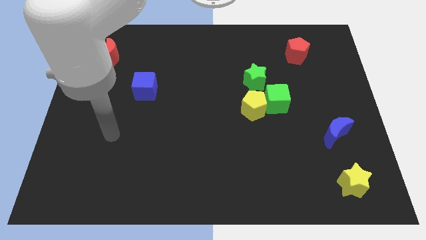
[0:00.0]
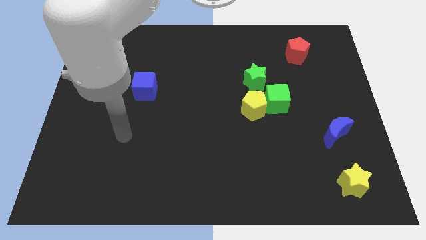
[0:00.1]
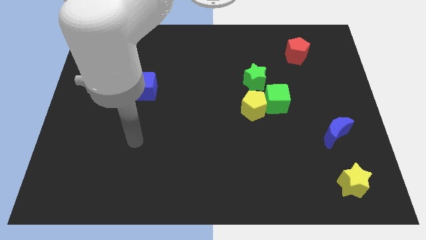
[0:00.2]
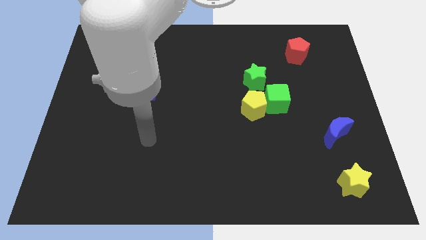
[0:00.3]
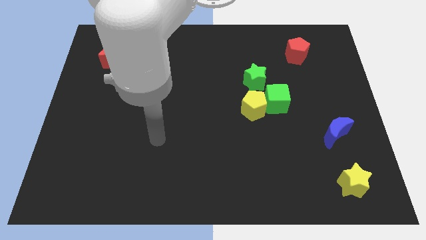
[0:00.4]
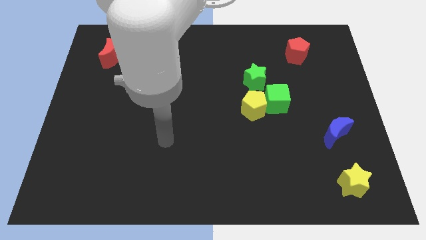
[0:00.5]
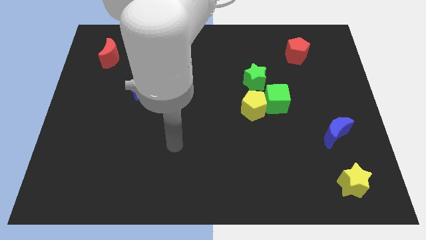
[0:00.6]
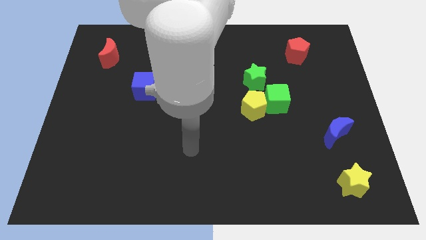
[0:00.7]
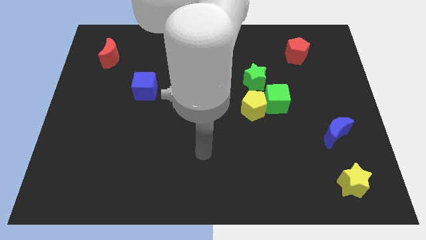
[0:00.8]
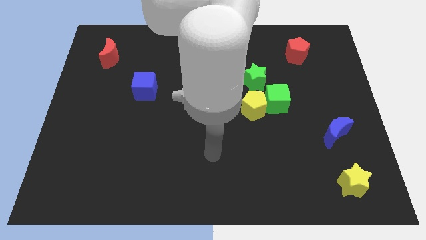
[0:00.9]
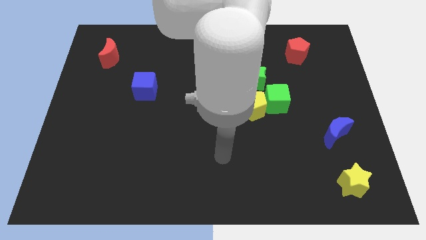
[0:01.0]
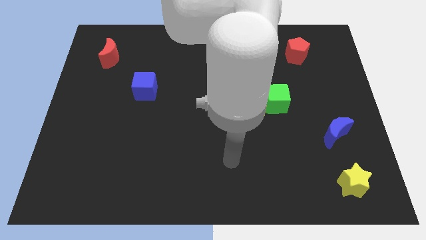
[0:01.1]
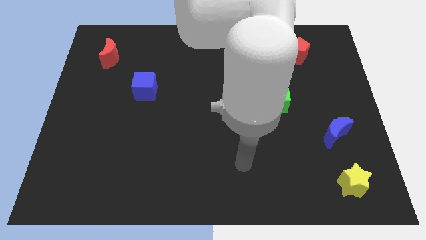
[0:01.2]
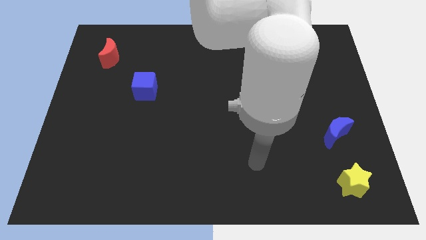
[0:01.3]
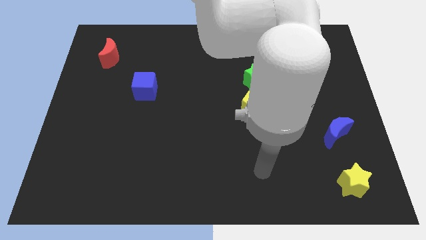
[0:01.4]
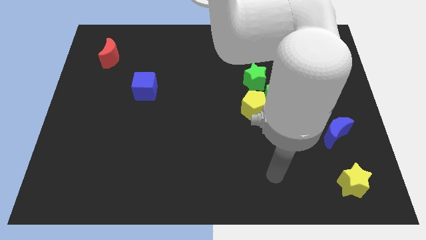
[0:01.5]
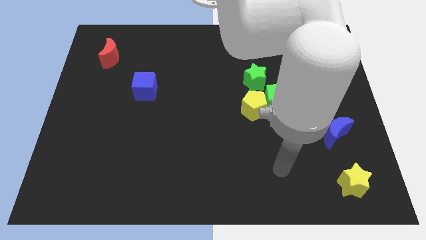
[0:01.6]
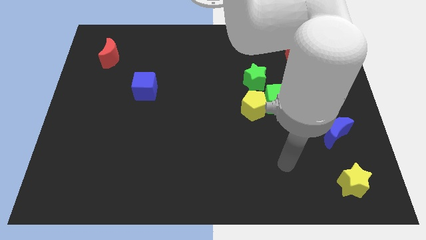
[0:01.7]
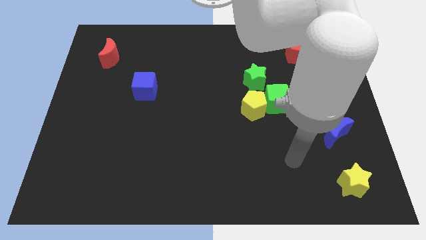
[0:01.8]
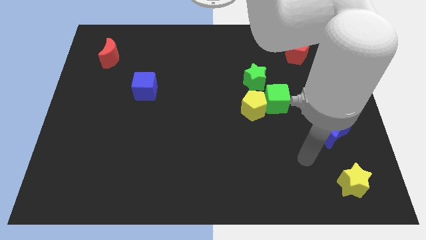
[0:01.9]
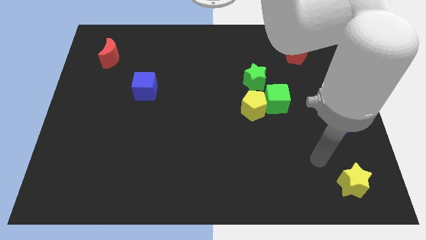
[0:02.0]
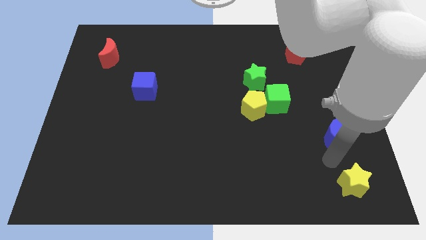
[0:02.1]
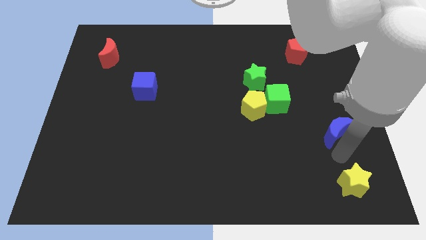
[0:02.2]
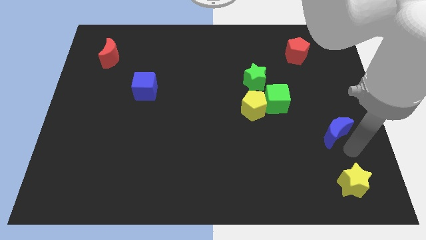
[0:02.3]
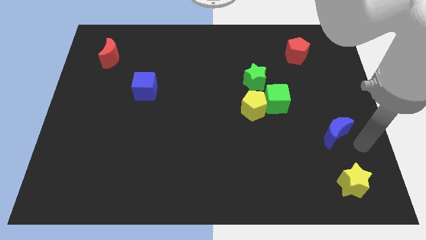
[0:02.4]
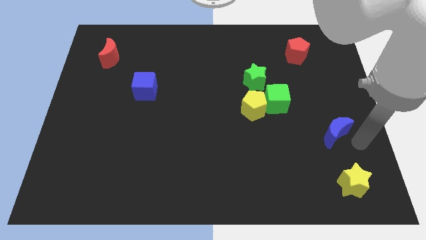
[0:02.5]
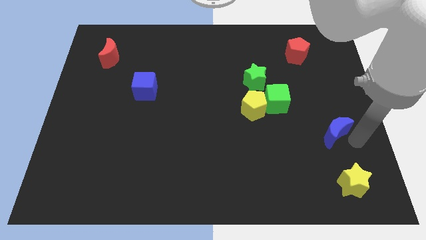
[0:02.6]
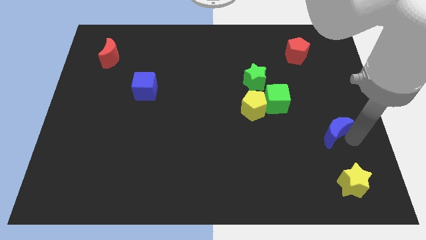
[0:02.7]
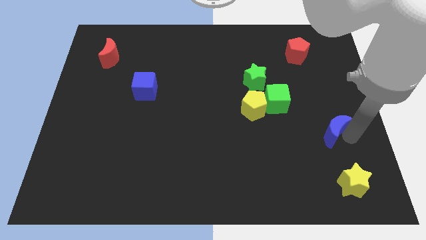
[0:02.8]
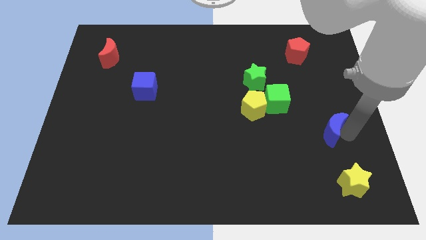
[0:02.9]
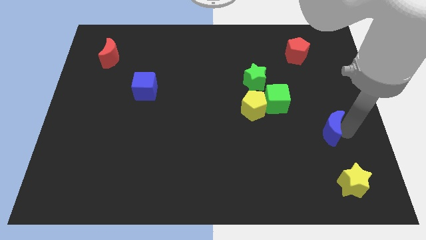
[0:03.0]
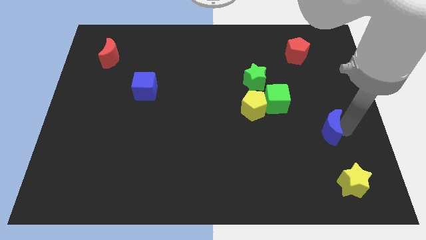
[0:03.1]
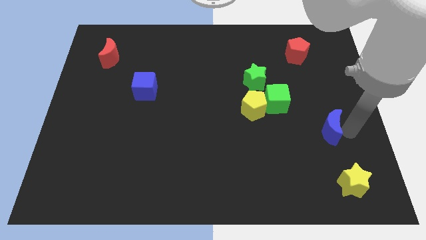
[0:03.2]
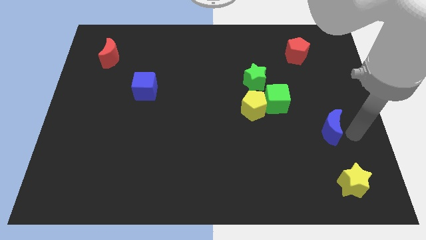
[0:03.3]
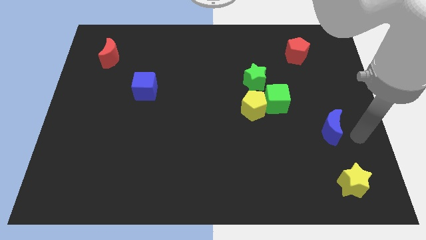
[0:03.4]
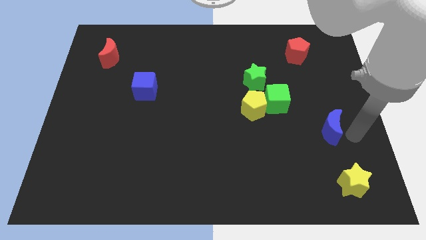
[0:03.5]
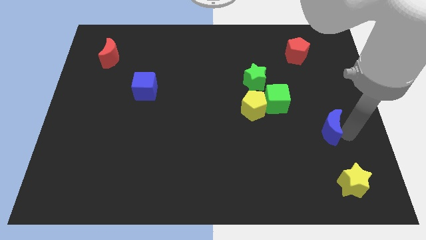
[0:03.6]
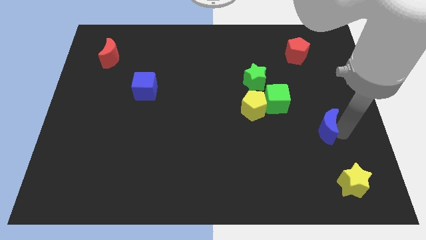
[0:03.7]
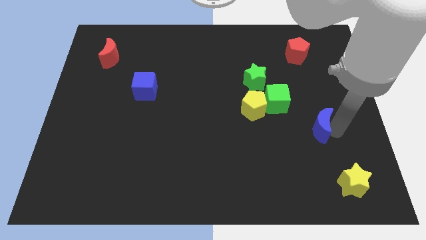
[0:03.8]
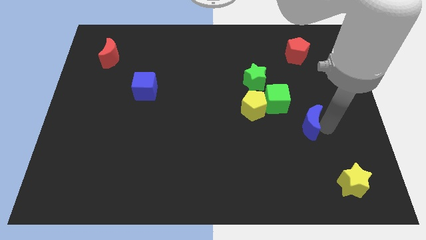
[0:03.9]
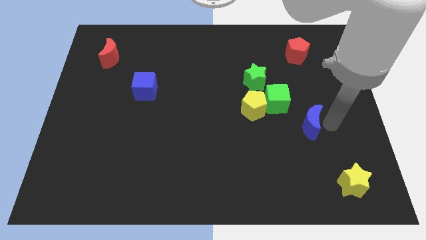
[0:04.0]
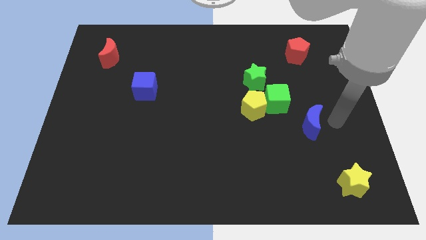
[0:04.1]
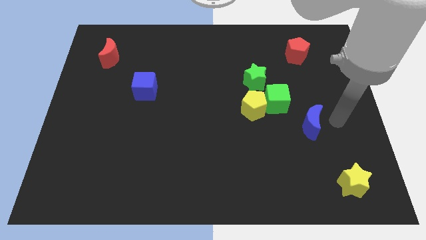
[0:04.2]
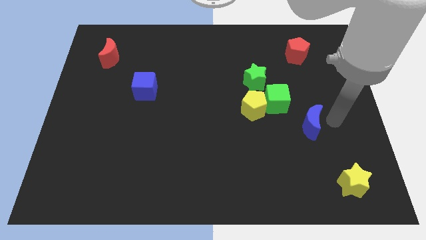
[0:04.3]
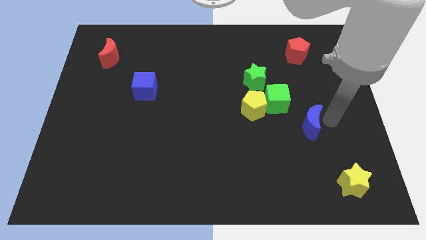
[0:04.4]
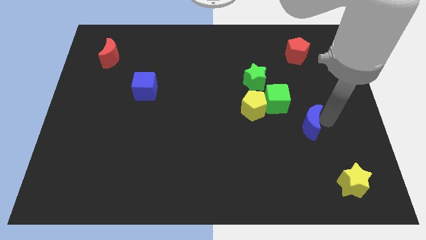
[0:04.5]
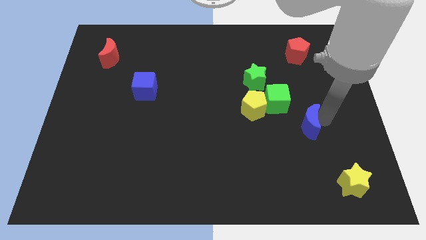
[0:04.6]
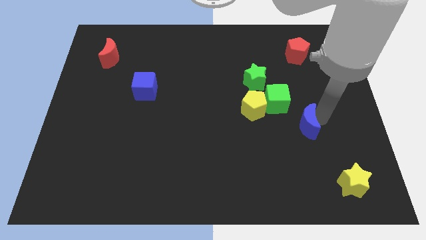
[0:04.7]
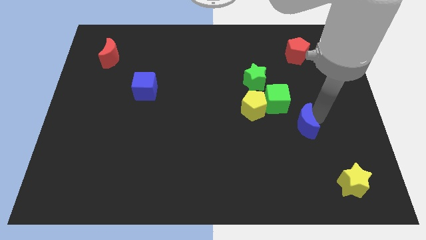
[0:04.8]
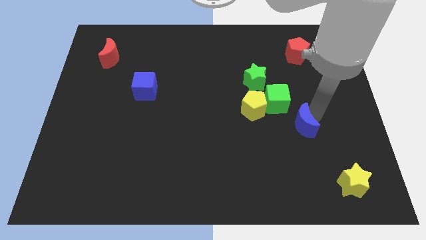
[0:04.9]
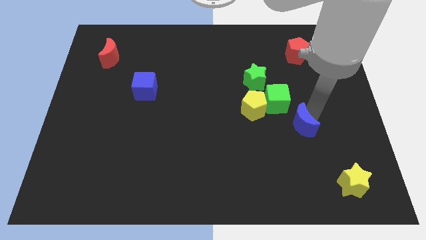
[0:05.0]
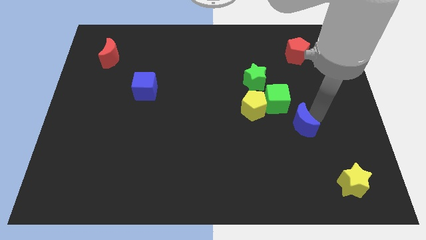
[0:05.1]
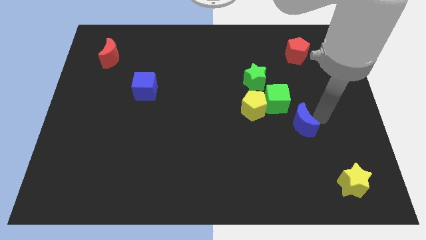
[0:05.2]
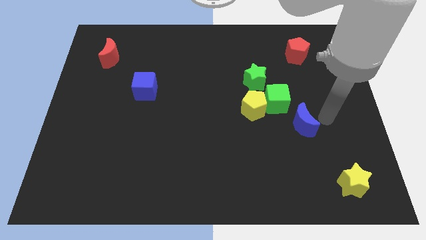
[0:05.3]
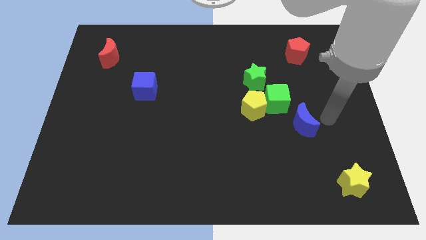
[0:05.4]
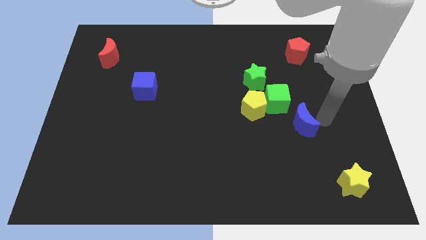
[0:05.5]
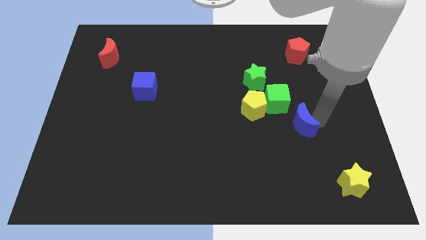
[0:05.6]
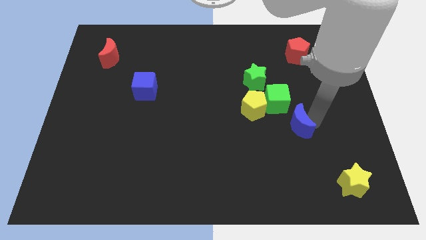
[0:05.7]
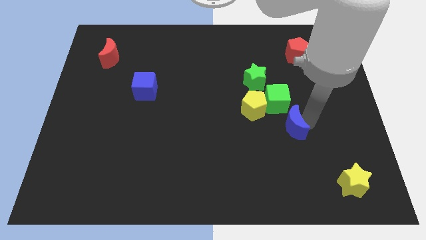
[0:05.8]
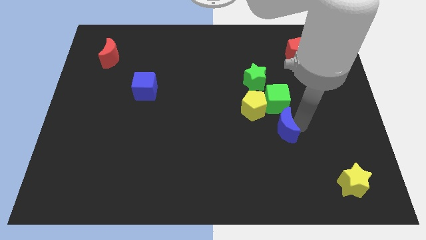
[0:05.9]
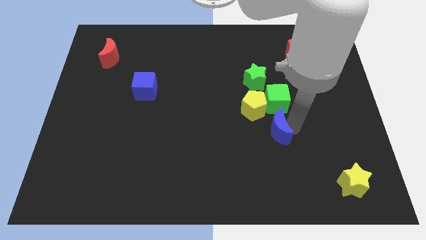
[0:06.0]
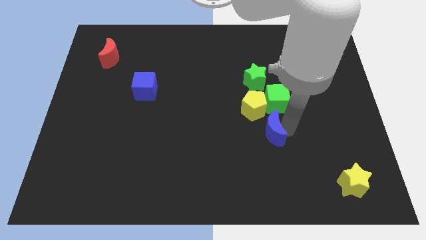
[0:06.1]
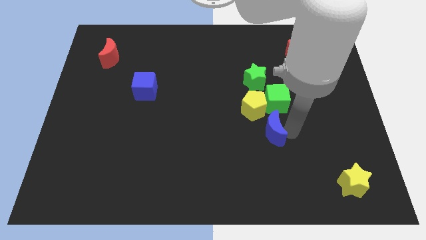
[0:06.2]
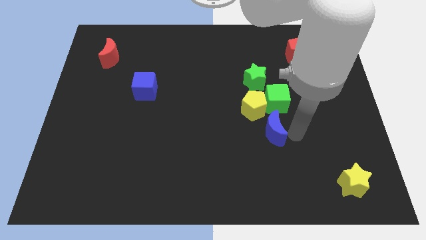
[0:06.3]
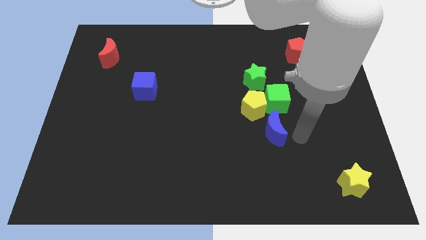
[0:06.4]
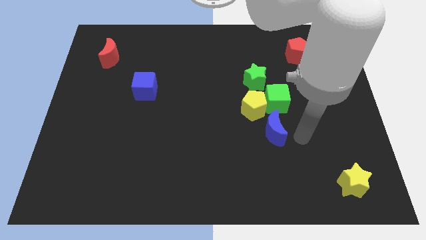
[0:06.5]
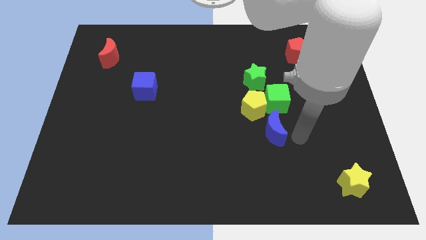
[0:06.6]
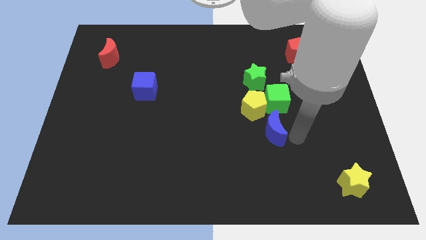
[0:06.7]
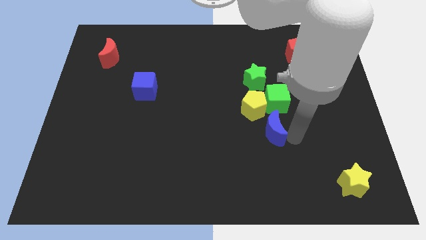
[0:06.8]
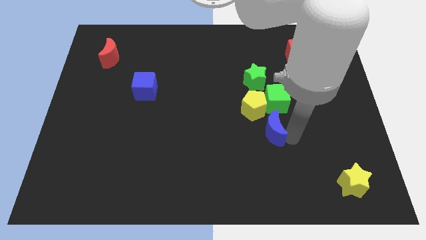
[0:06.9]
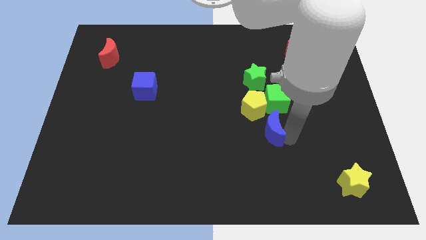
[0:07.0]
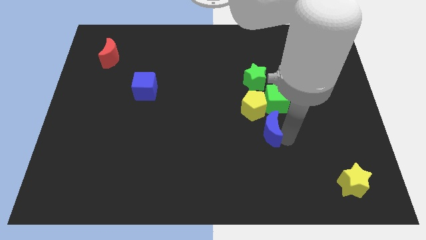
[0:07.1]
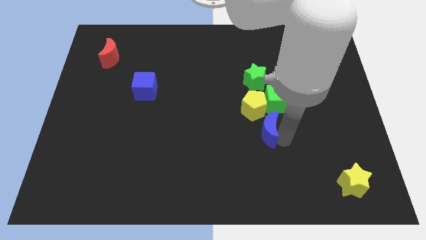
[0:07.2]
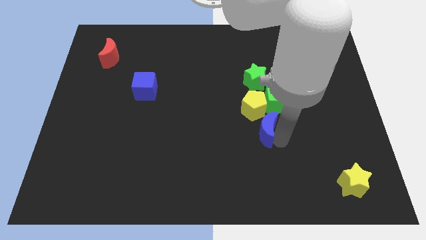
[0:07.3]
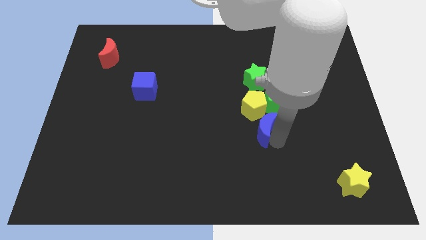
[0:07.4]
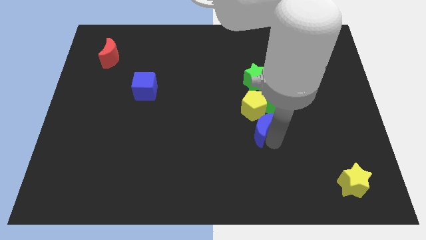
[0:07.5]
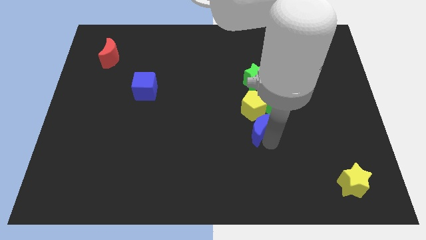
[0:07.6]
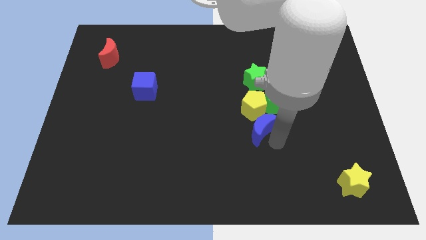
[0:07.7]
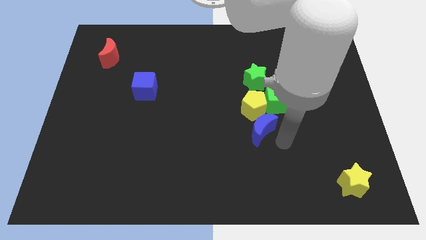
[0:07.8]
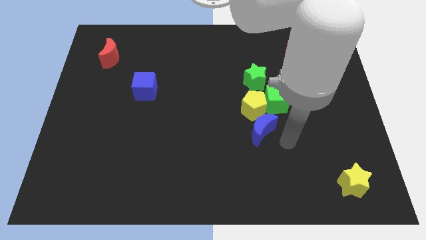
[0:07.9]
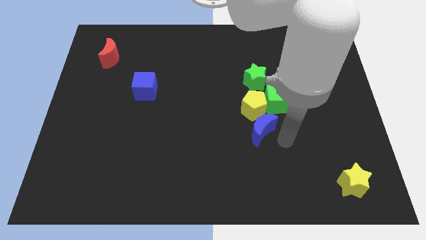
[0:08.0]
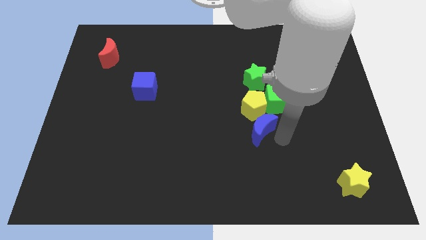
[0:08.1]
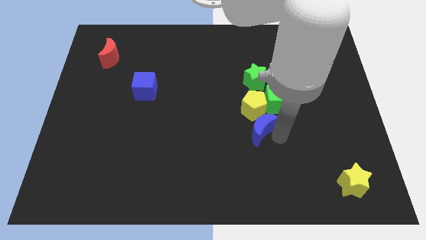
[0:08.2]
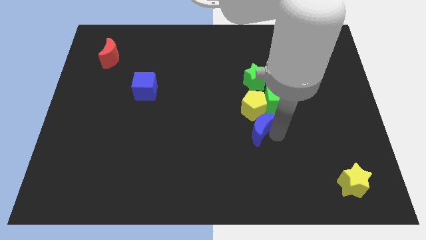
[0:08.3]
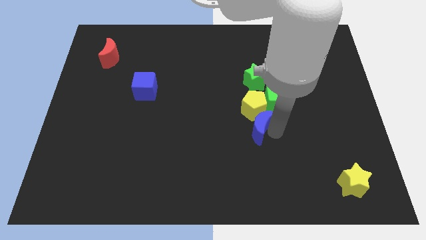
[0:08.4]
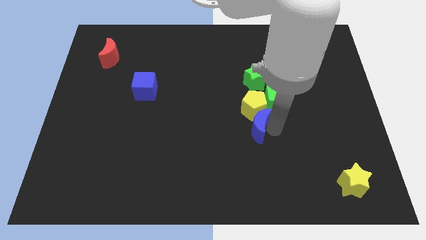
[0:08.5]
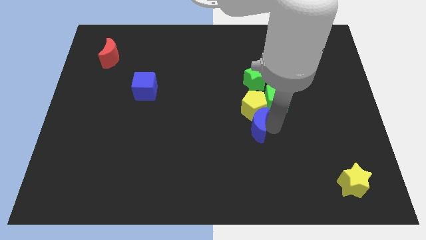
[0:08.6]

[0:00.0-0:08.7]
put the blue moon to the middle of the board
